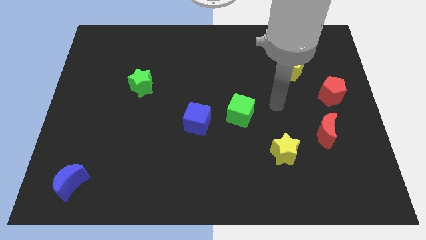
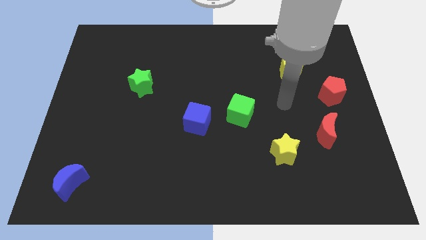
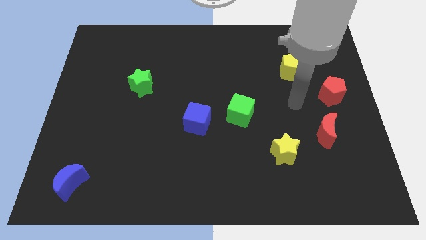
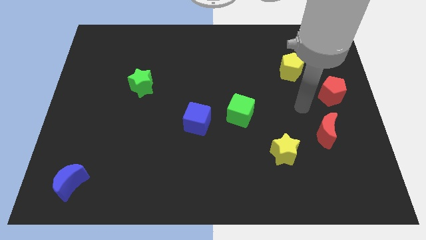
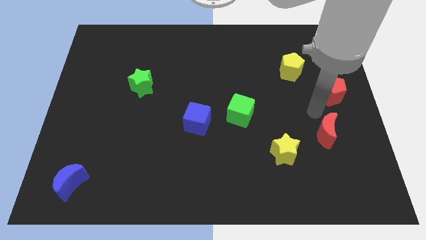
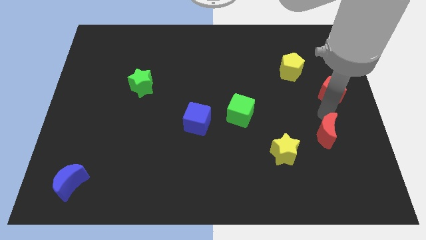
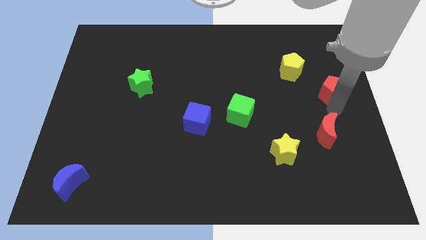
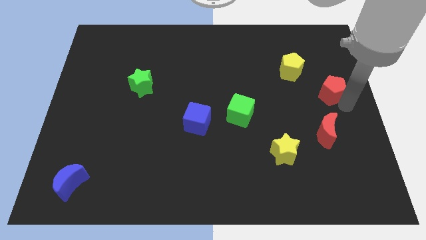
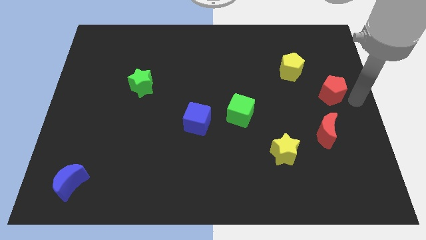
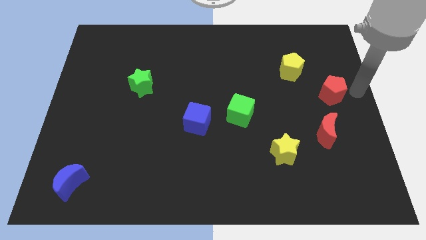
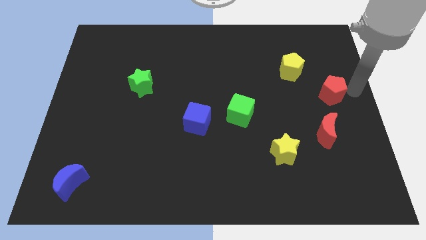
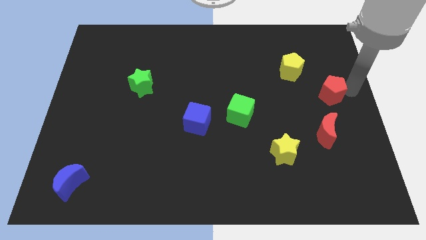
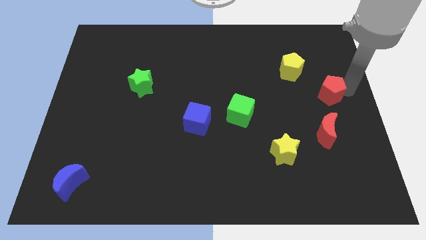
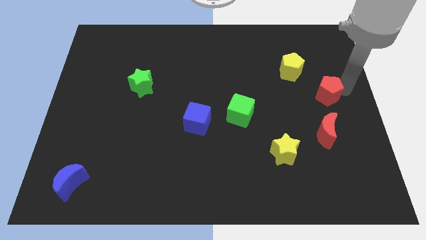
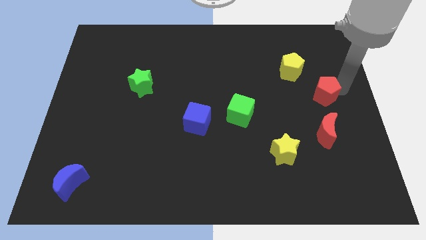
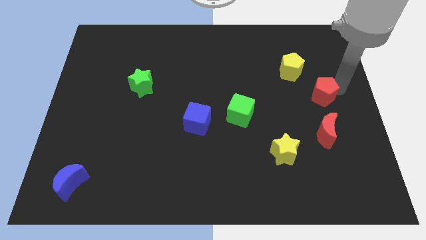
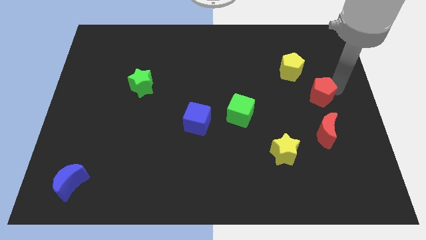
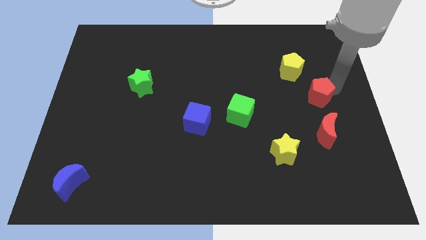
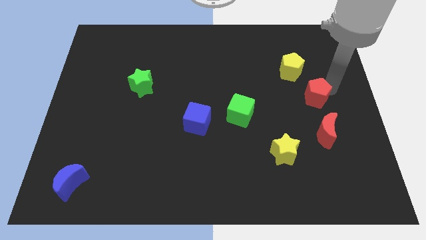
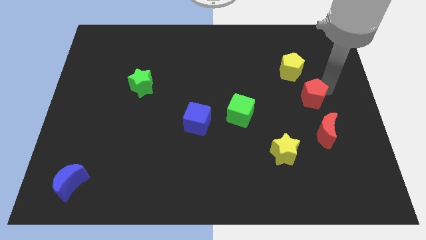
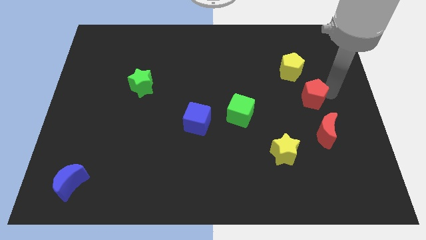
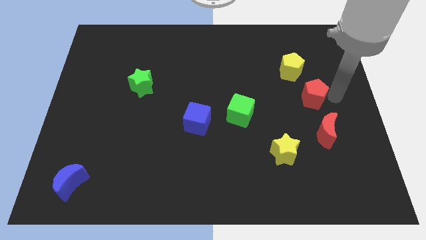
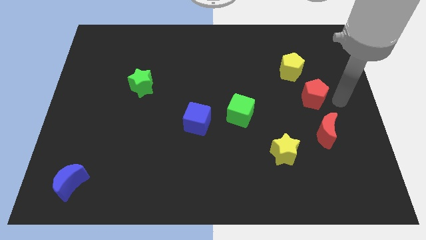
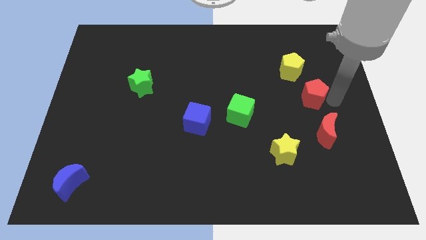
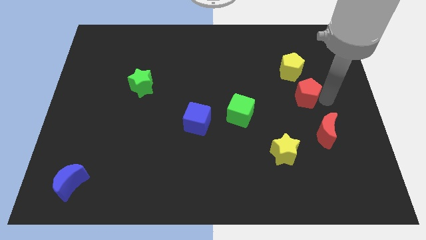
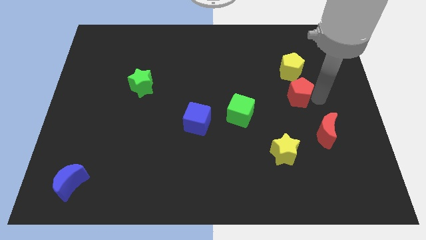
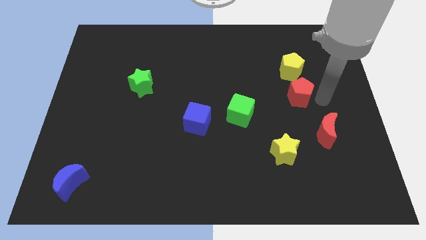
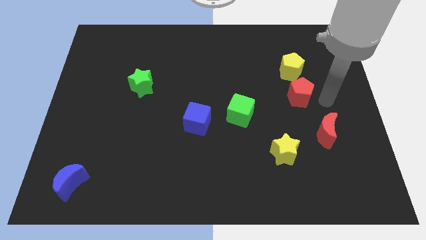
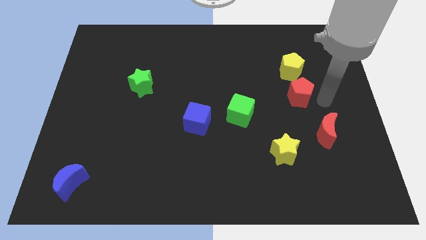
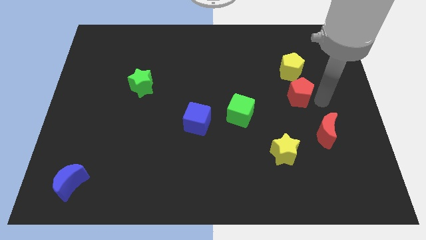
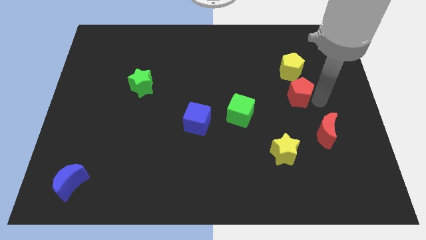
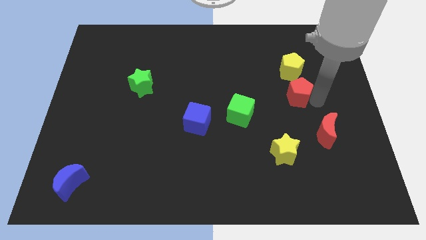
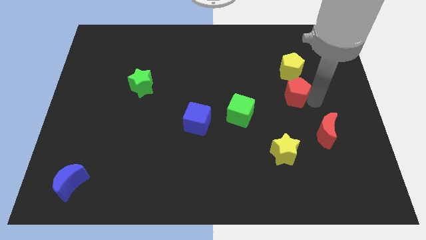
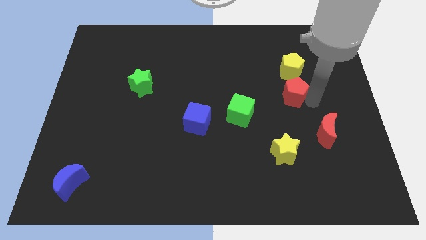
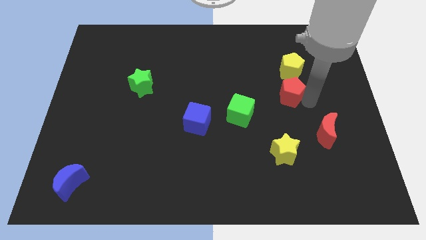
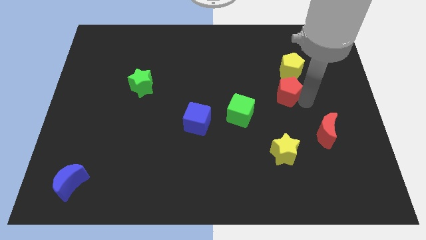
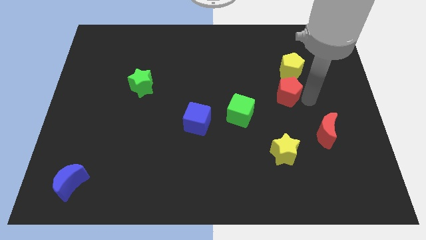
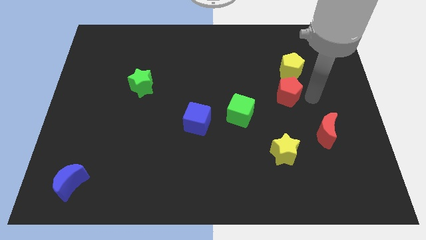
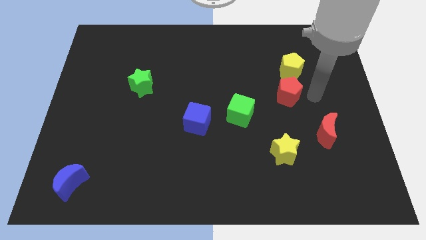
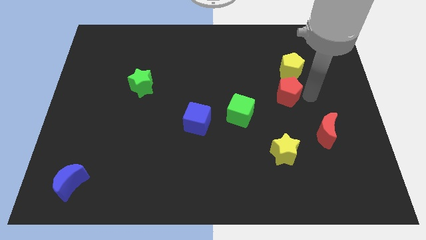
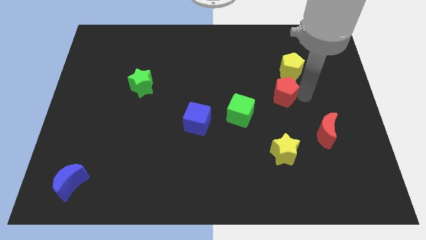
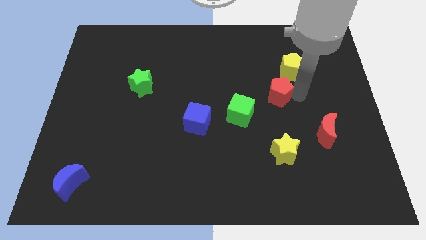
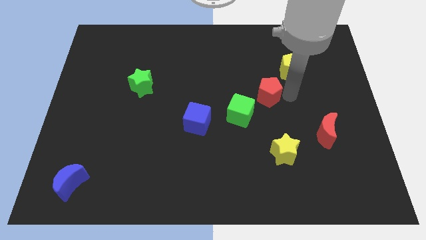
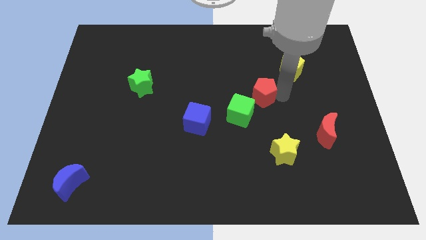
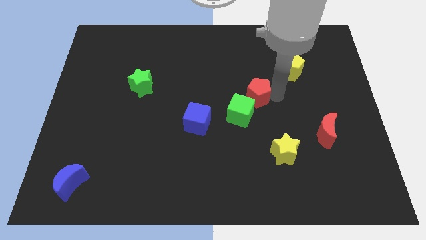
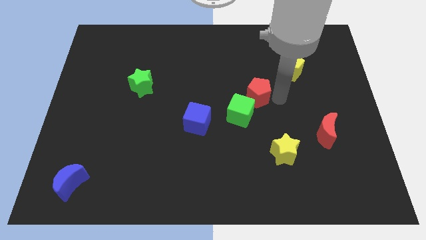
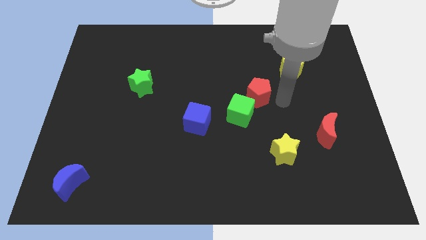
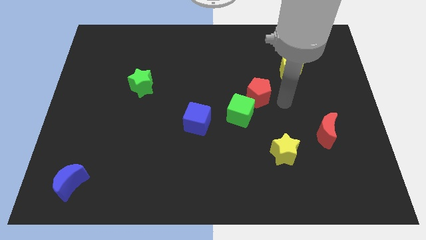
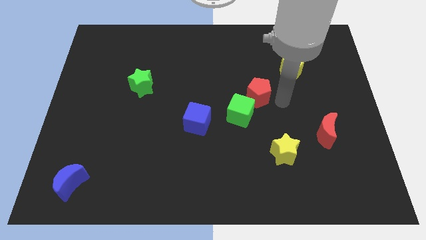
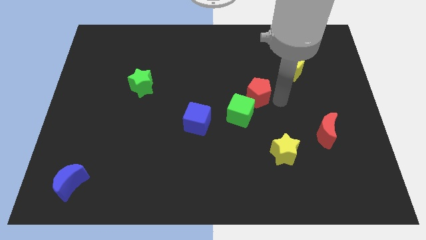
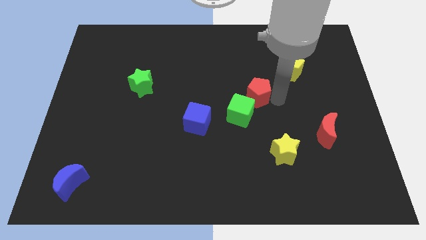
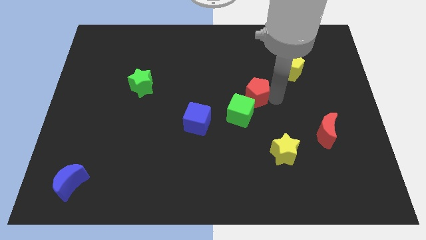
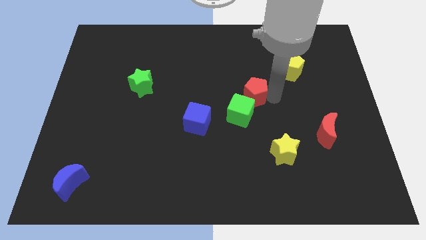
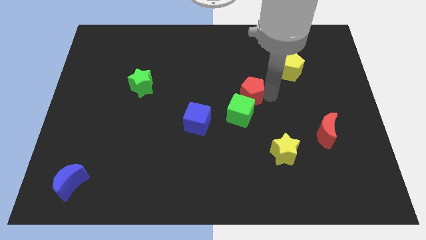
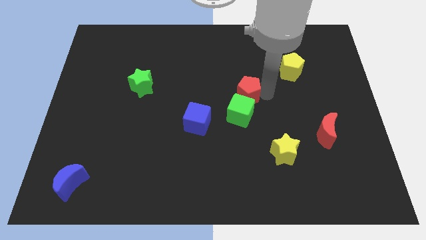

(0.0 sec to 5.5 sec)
move the red pentagon left

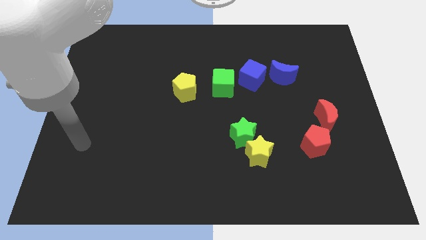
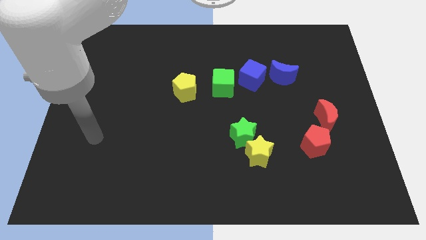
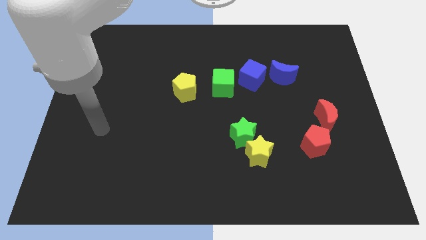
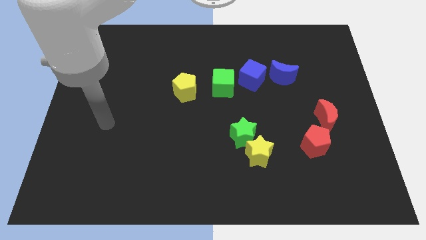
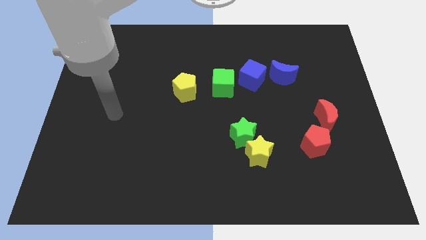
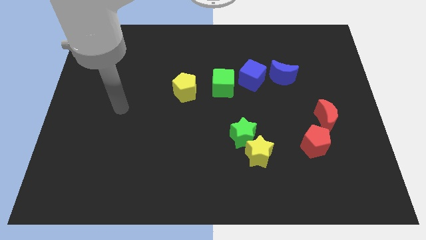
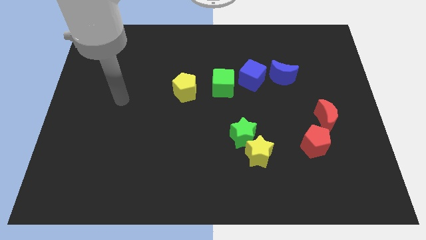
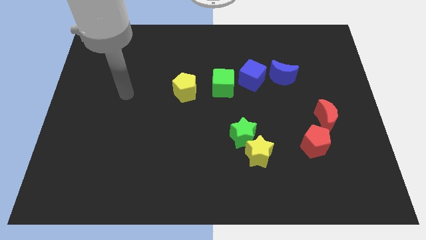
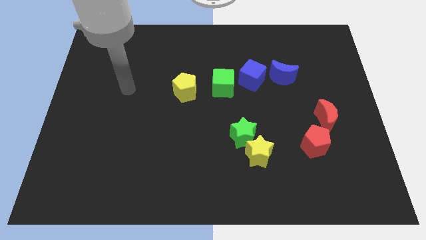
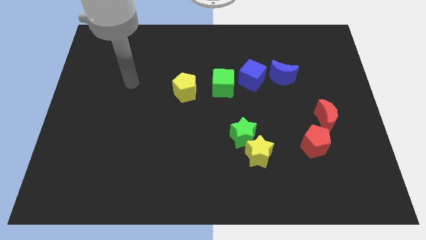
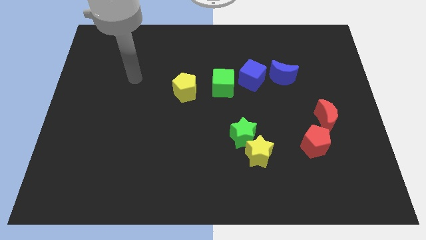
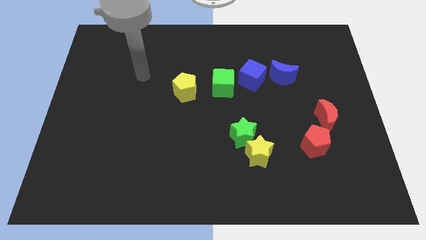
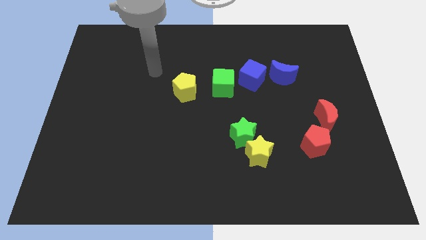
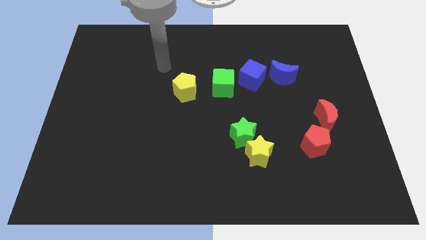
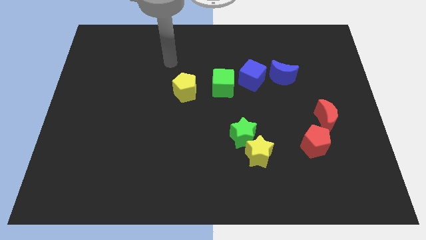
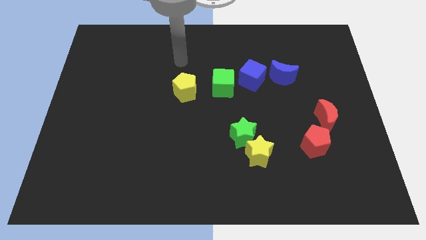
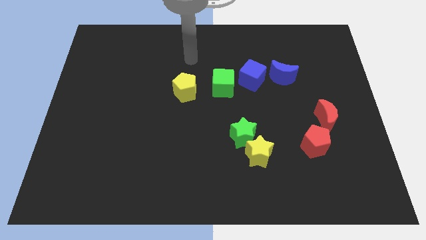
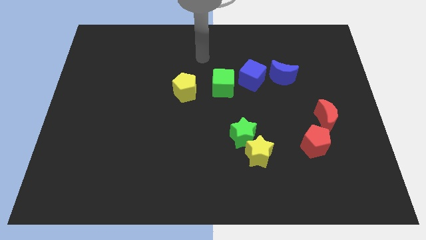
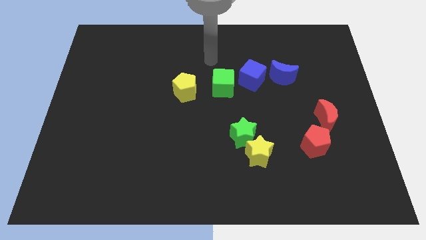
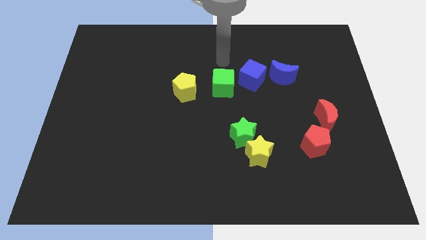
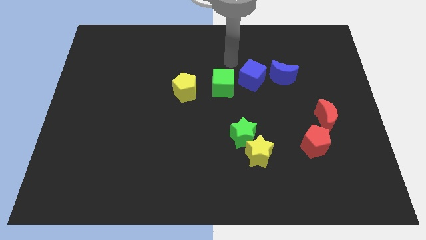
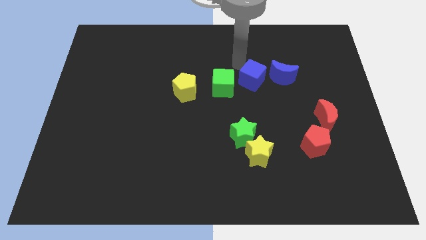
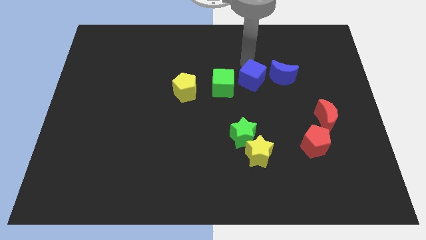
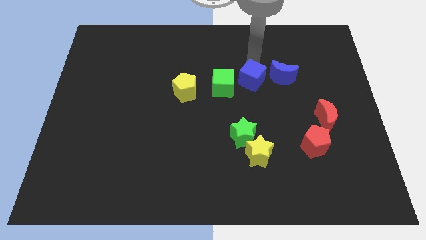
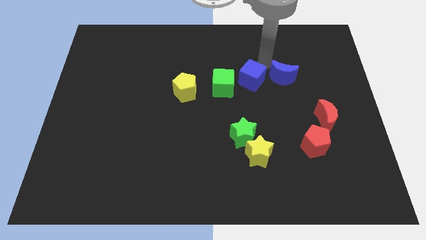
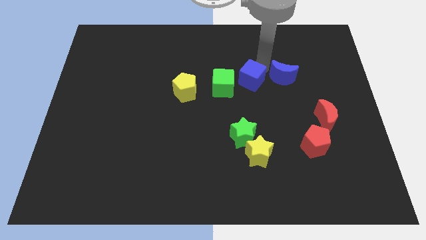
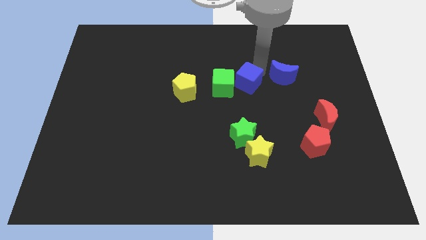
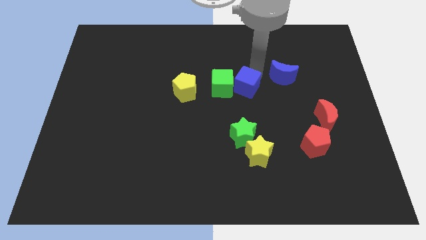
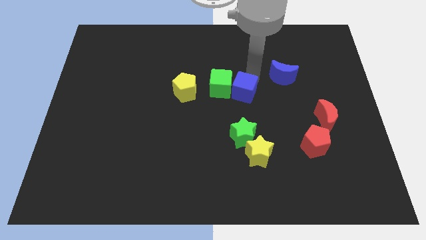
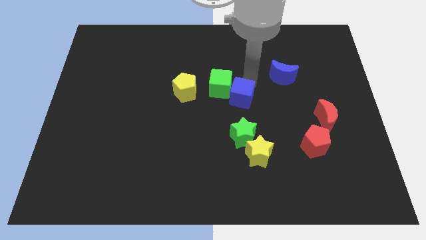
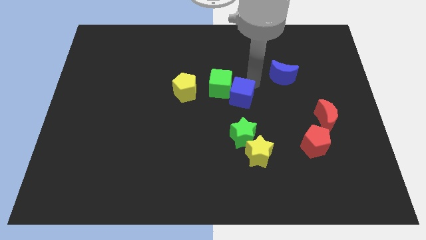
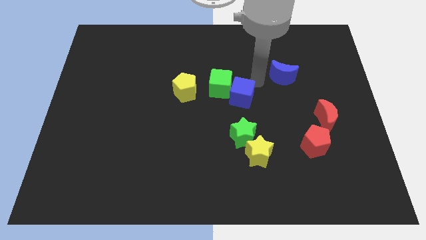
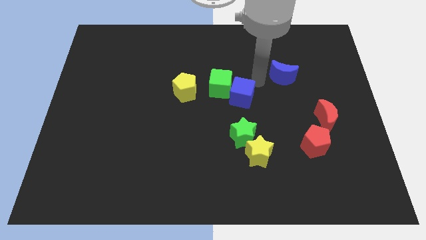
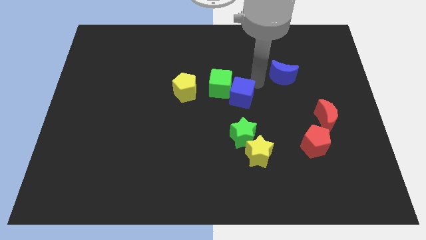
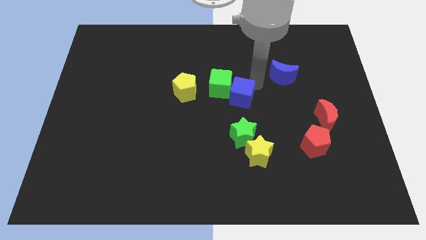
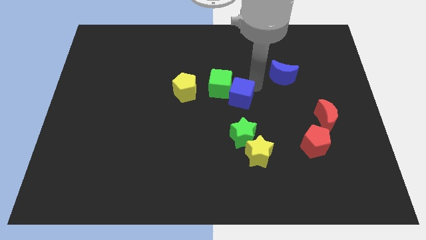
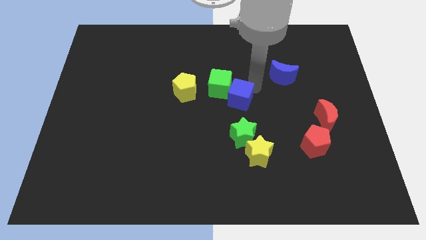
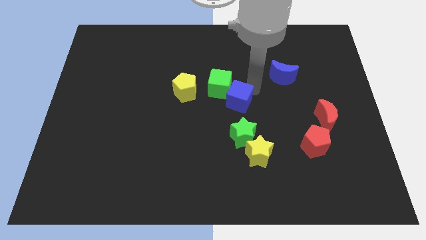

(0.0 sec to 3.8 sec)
move the blue cube a little down and left
